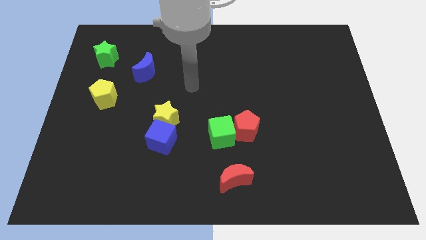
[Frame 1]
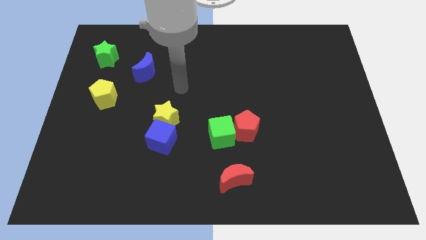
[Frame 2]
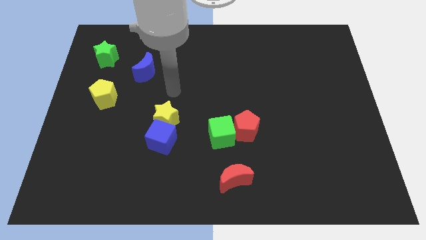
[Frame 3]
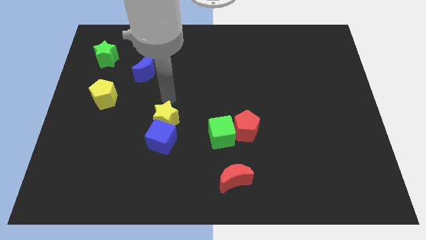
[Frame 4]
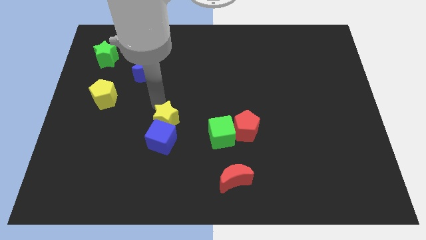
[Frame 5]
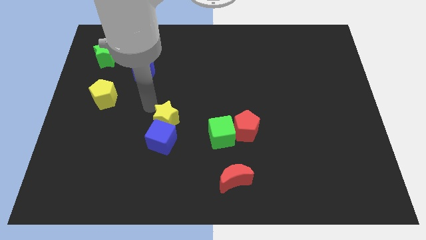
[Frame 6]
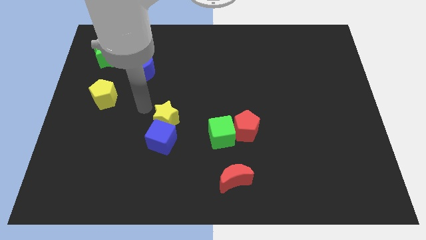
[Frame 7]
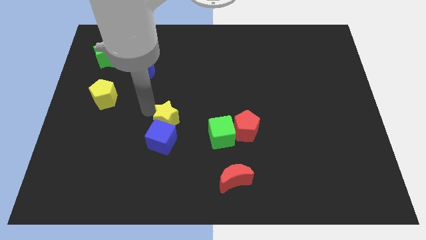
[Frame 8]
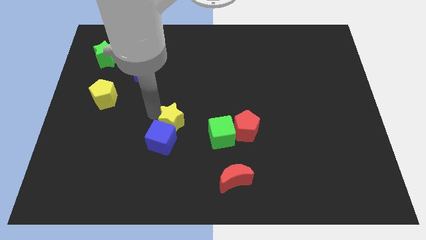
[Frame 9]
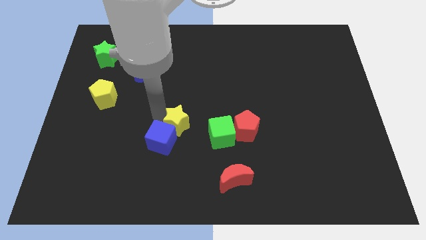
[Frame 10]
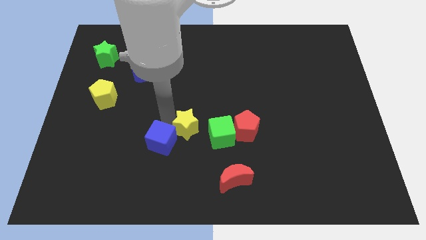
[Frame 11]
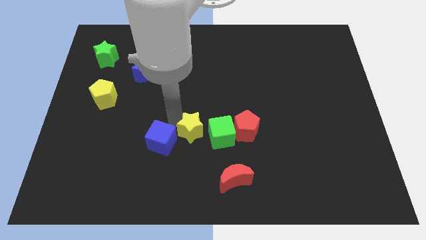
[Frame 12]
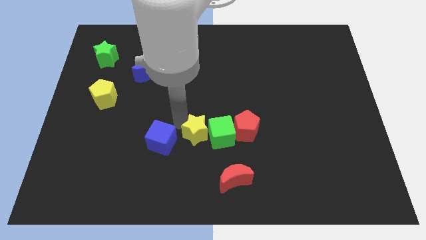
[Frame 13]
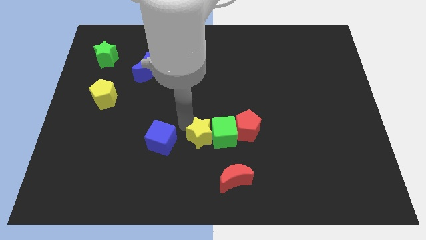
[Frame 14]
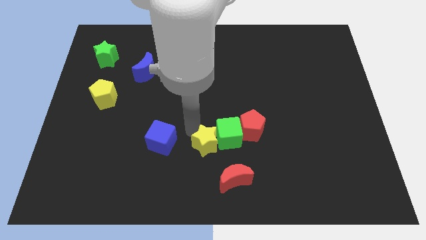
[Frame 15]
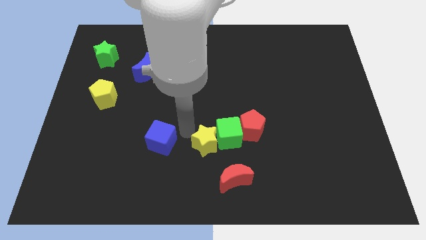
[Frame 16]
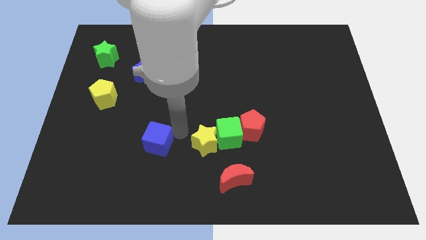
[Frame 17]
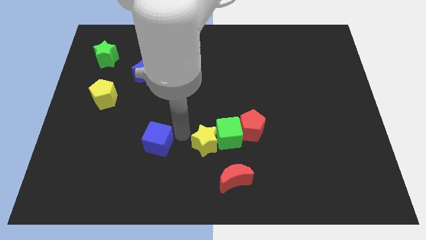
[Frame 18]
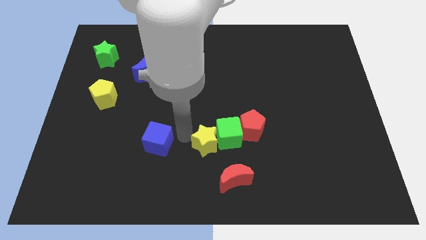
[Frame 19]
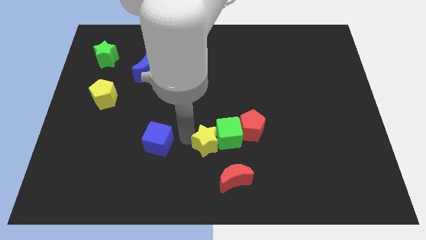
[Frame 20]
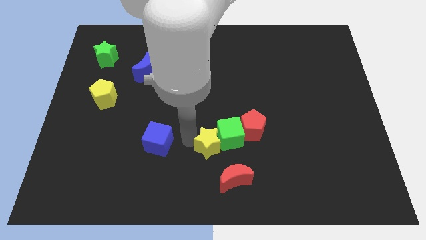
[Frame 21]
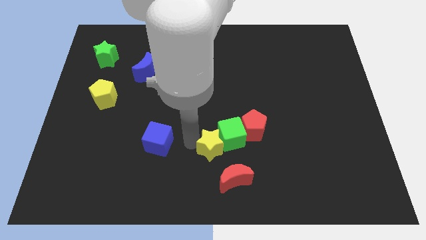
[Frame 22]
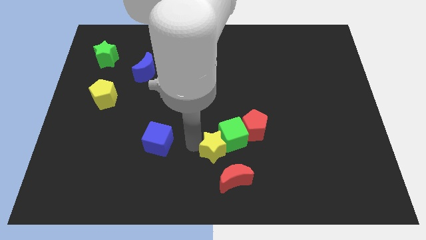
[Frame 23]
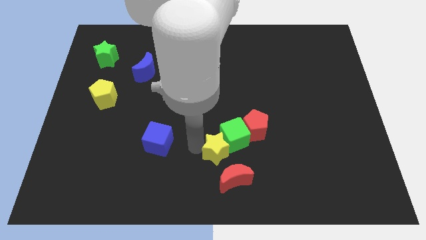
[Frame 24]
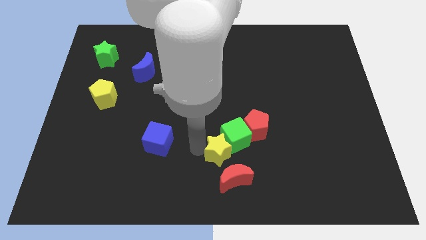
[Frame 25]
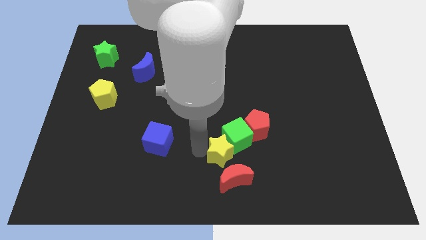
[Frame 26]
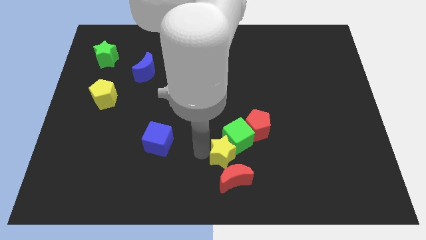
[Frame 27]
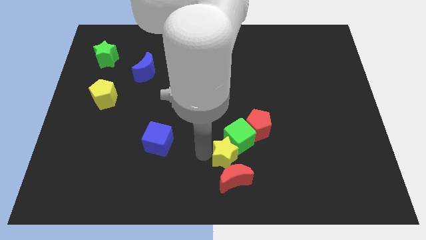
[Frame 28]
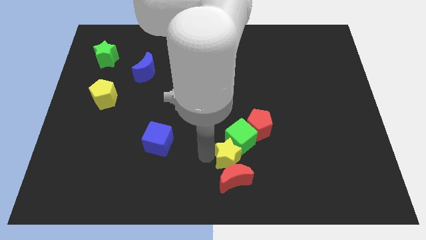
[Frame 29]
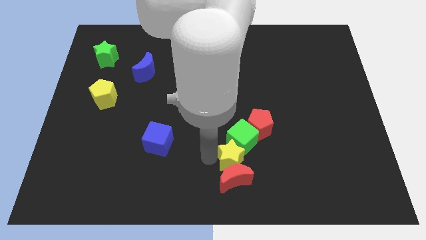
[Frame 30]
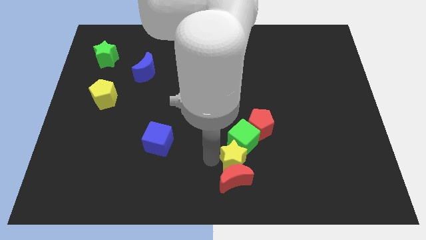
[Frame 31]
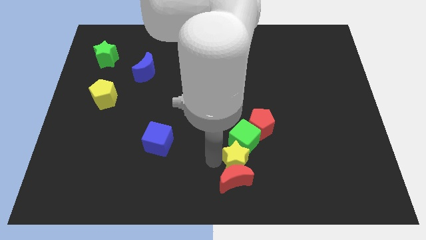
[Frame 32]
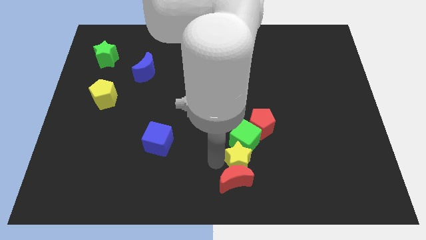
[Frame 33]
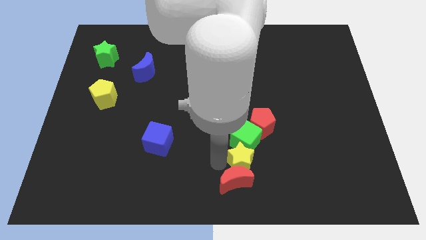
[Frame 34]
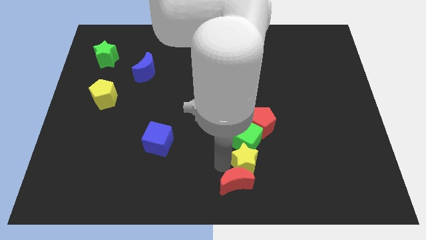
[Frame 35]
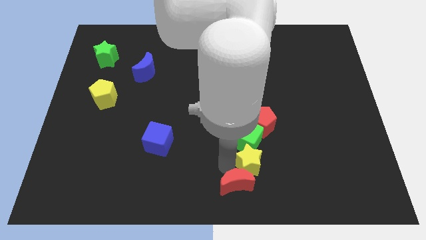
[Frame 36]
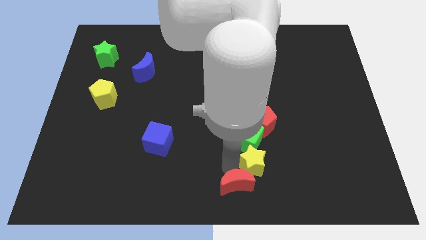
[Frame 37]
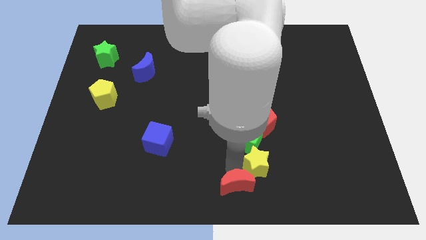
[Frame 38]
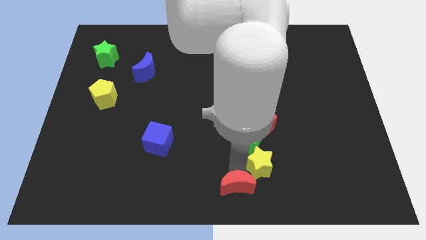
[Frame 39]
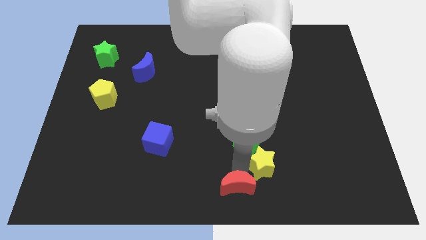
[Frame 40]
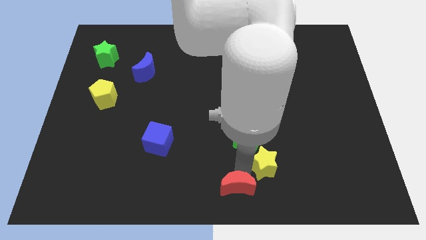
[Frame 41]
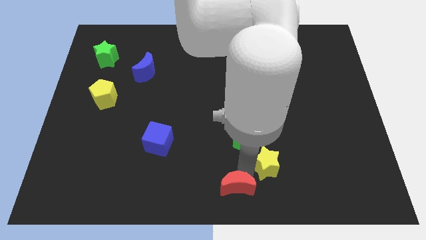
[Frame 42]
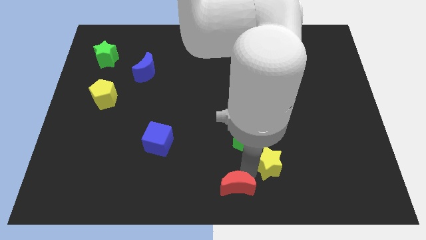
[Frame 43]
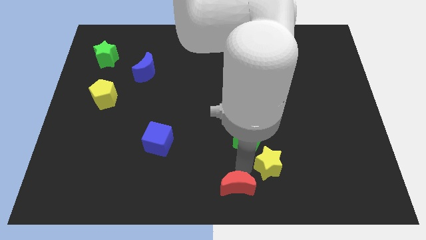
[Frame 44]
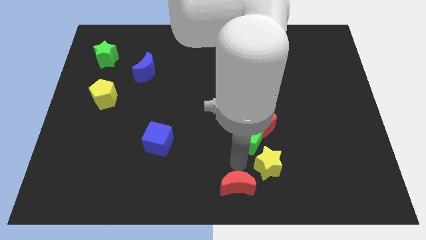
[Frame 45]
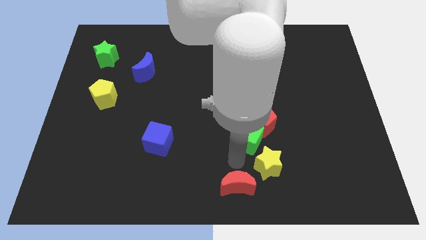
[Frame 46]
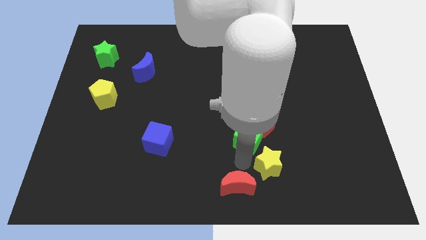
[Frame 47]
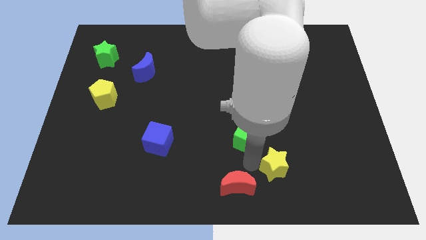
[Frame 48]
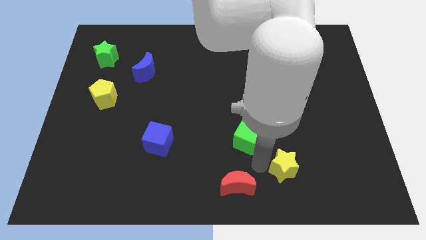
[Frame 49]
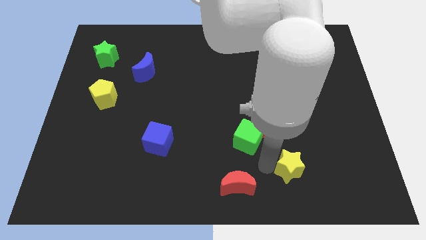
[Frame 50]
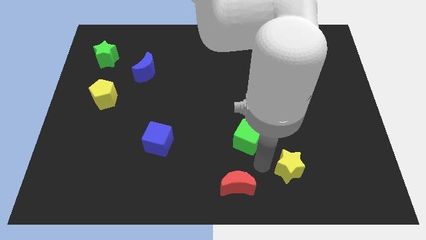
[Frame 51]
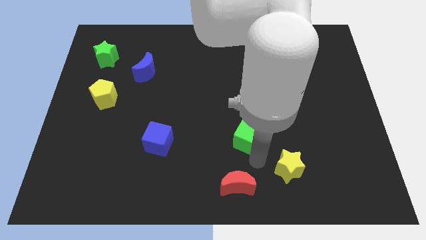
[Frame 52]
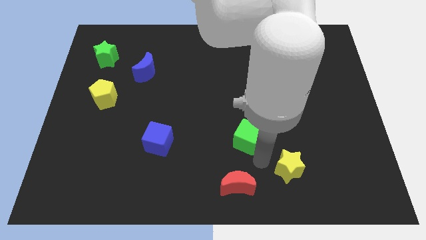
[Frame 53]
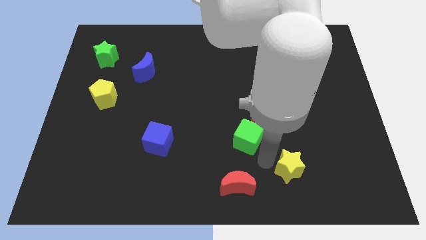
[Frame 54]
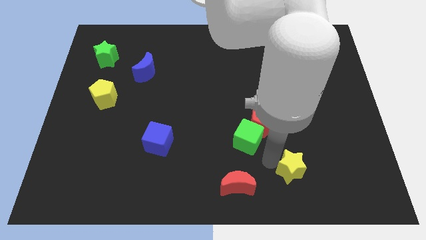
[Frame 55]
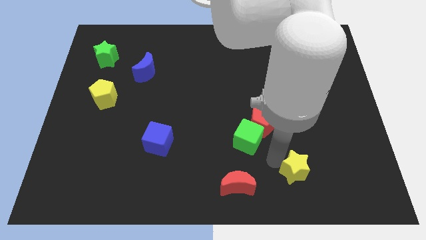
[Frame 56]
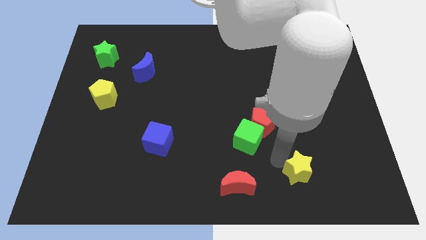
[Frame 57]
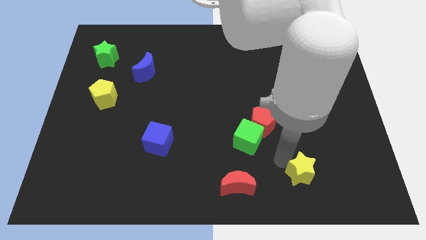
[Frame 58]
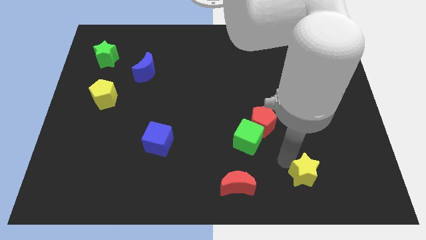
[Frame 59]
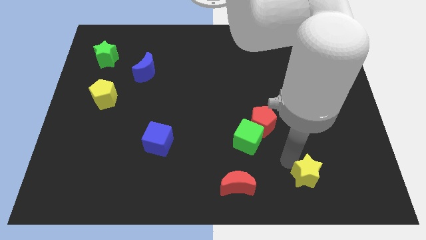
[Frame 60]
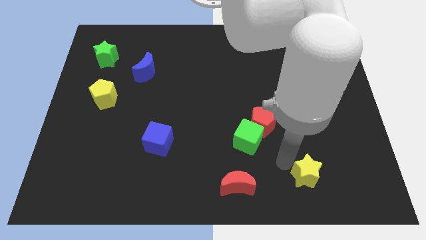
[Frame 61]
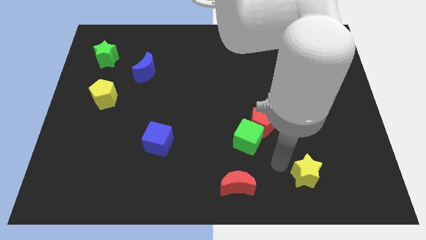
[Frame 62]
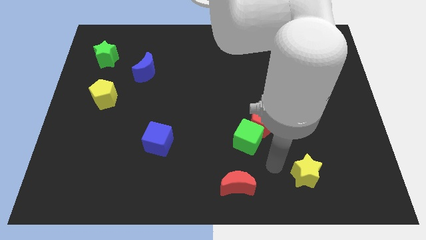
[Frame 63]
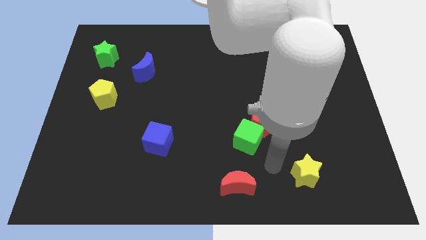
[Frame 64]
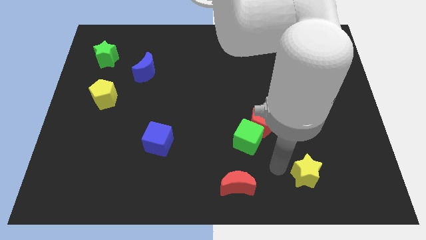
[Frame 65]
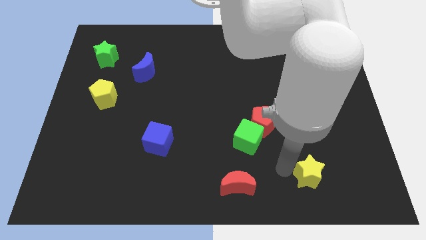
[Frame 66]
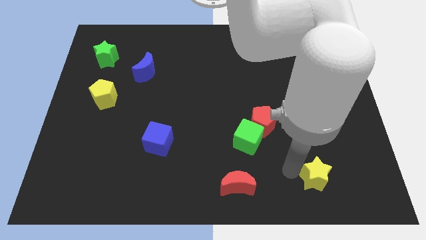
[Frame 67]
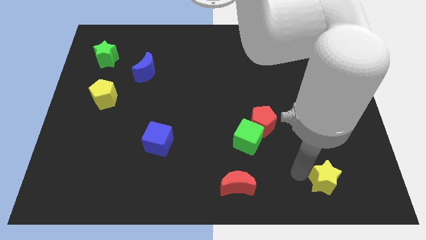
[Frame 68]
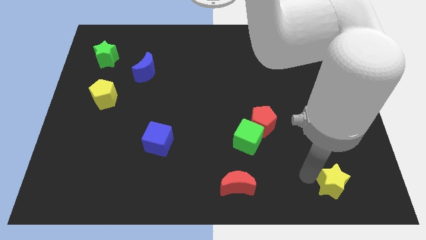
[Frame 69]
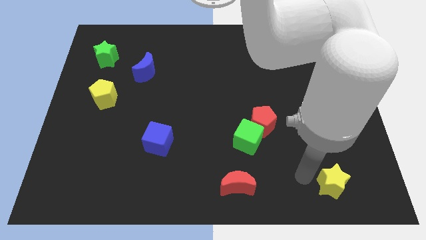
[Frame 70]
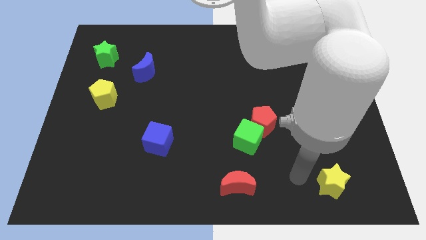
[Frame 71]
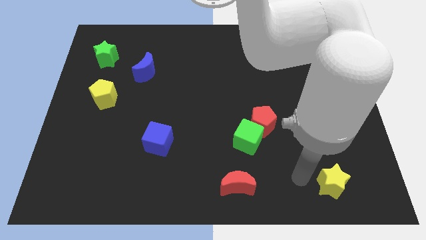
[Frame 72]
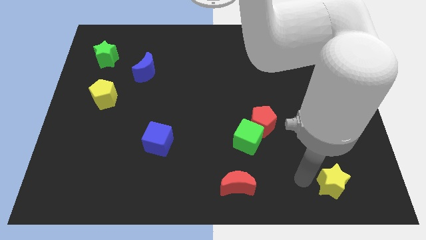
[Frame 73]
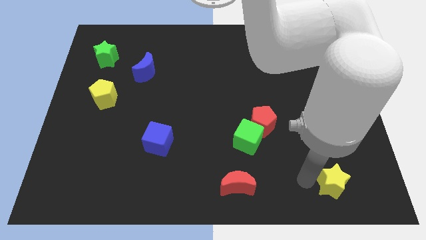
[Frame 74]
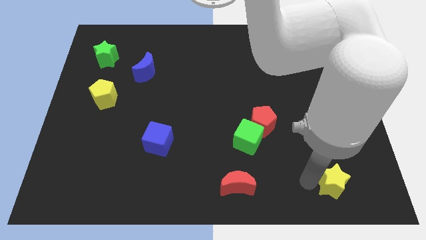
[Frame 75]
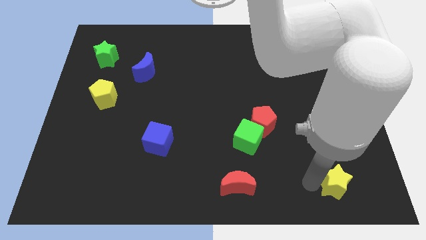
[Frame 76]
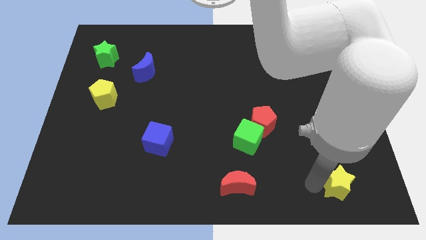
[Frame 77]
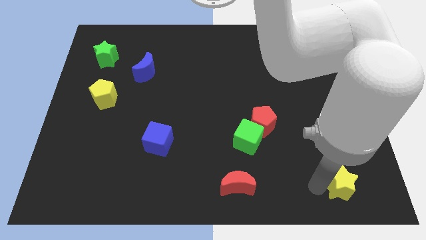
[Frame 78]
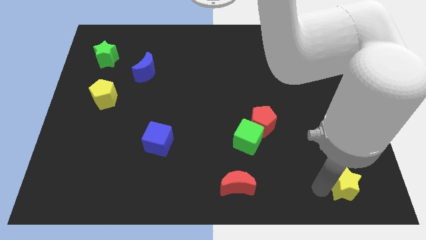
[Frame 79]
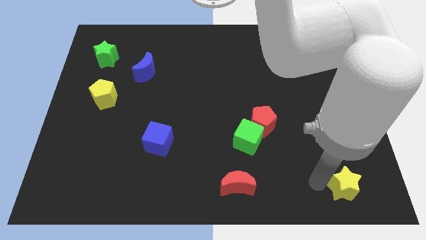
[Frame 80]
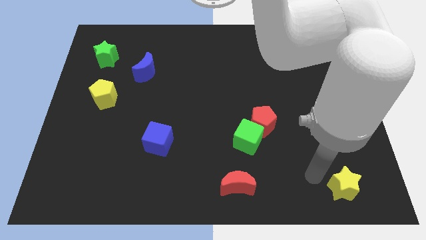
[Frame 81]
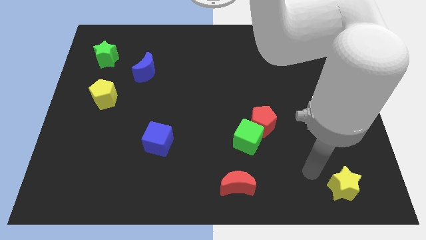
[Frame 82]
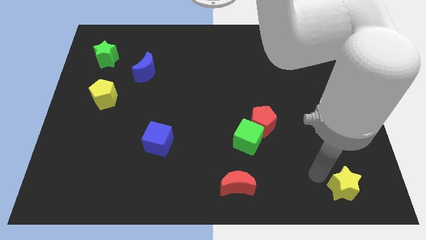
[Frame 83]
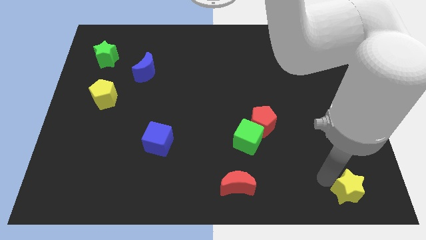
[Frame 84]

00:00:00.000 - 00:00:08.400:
slide the yellow star to the bottom right
